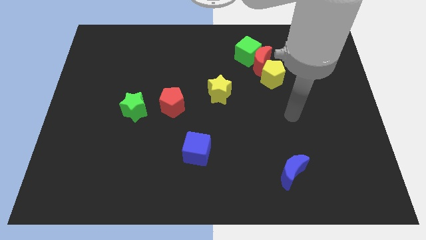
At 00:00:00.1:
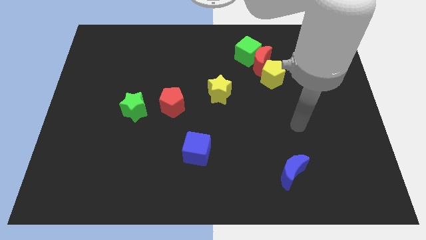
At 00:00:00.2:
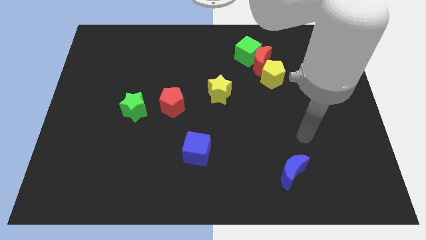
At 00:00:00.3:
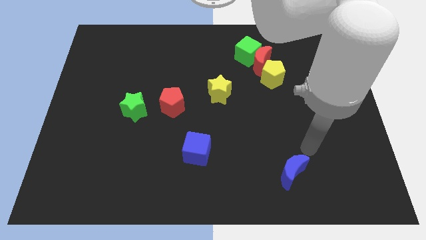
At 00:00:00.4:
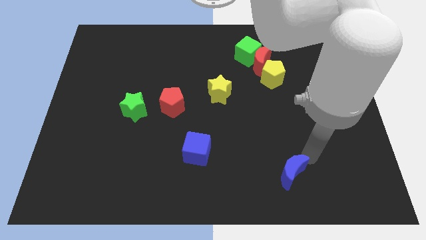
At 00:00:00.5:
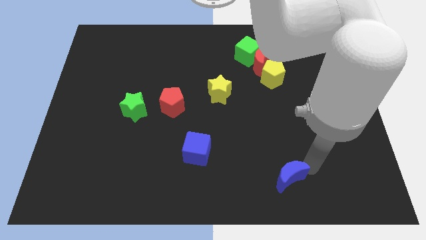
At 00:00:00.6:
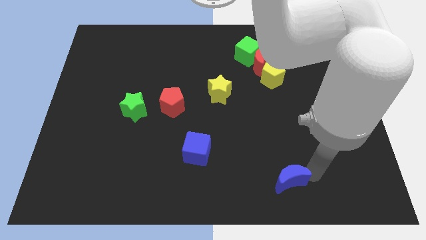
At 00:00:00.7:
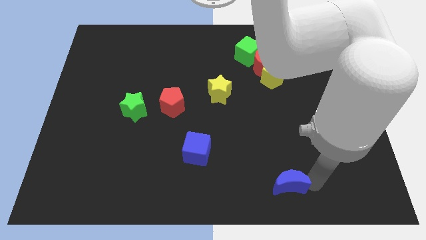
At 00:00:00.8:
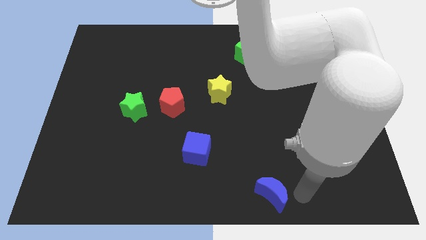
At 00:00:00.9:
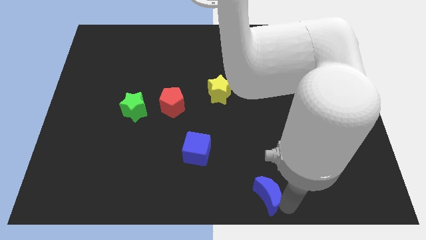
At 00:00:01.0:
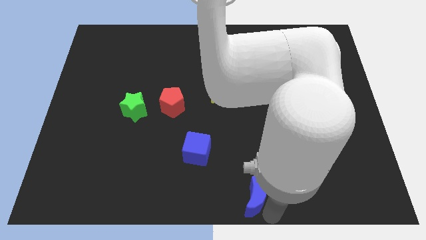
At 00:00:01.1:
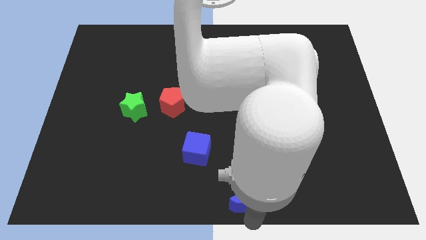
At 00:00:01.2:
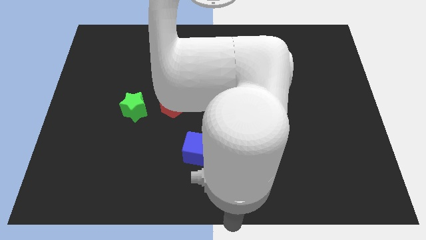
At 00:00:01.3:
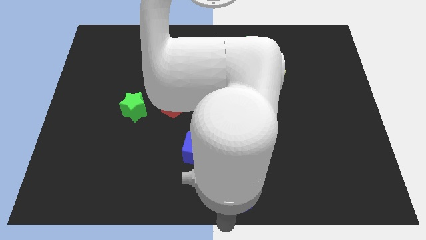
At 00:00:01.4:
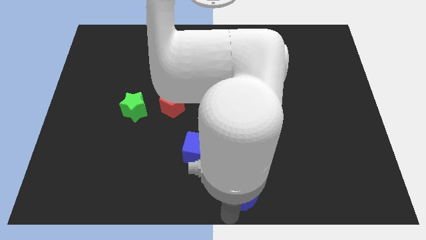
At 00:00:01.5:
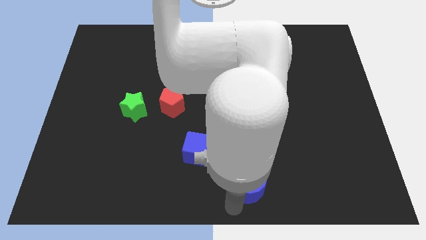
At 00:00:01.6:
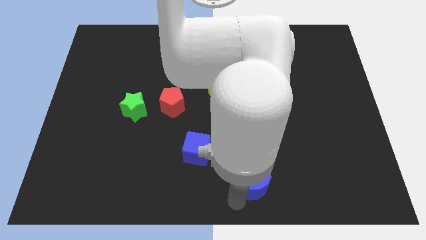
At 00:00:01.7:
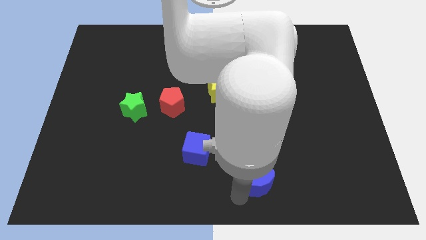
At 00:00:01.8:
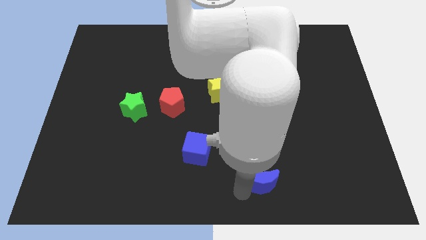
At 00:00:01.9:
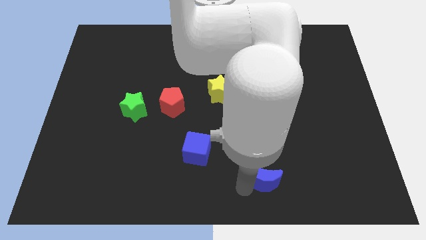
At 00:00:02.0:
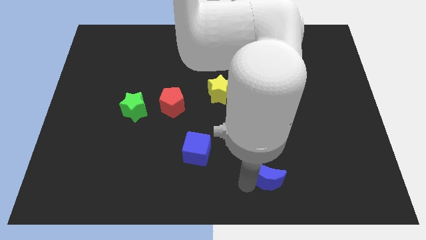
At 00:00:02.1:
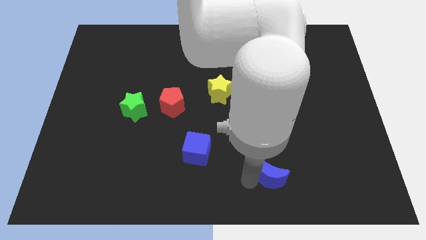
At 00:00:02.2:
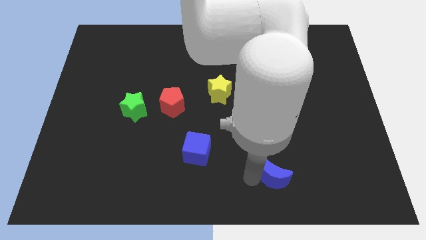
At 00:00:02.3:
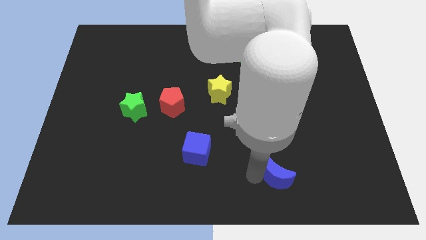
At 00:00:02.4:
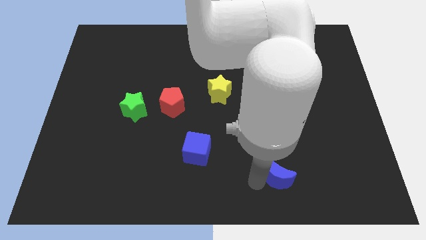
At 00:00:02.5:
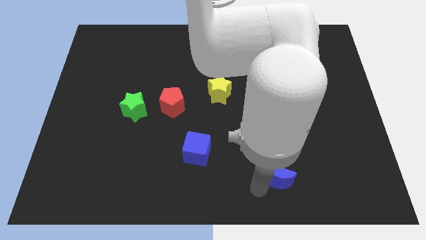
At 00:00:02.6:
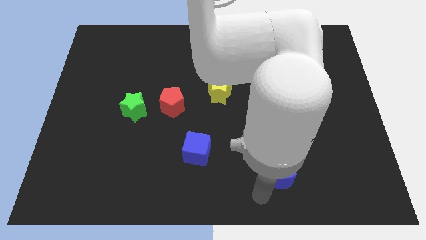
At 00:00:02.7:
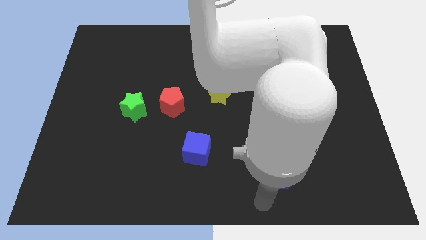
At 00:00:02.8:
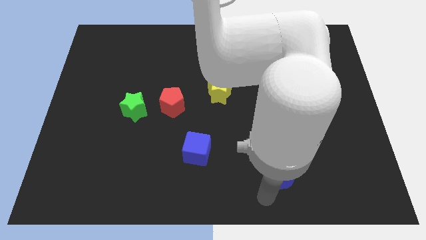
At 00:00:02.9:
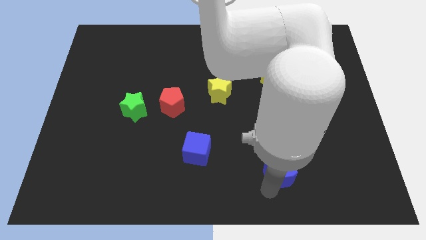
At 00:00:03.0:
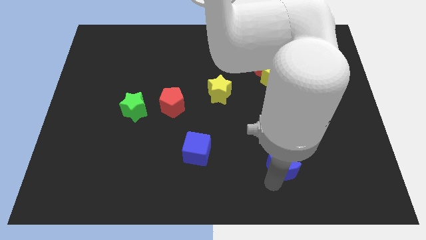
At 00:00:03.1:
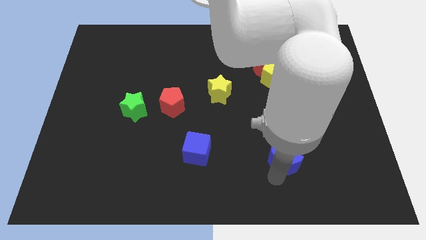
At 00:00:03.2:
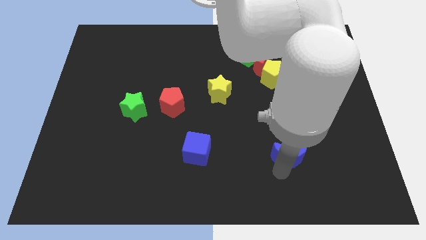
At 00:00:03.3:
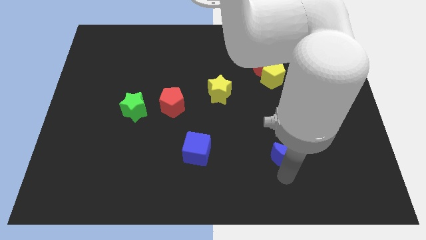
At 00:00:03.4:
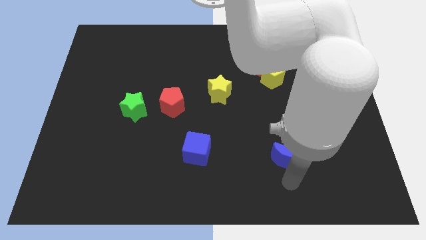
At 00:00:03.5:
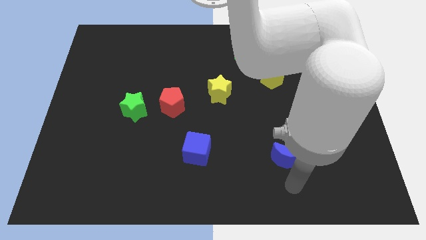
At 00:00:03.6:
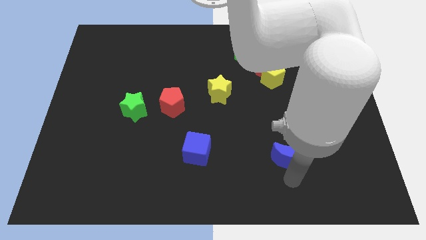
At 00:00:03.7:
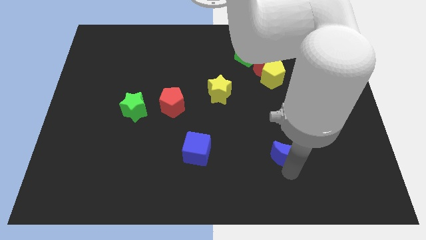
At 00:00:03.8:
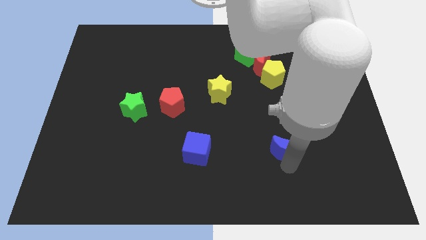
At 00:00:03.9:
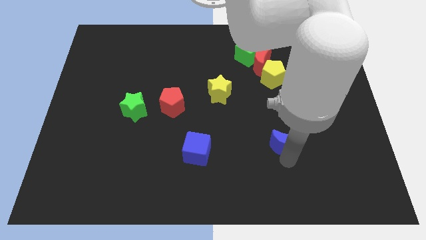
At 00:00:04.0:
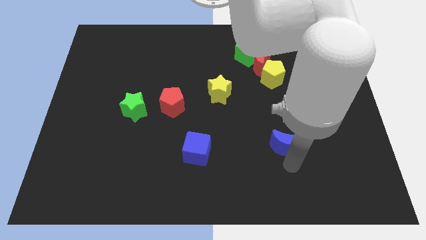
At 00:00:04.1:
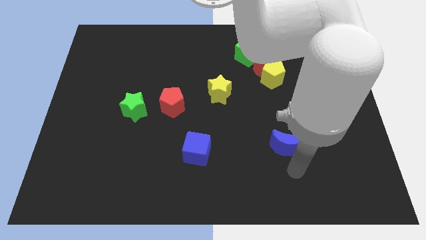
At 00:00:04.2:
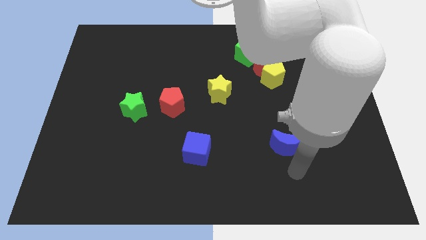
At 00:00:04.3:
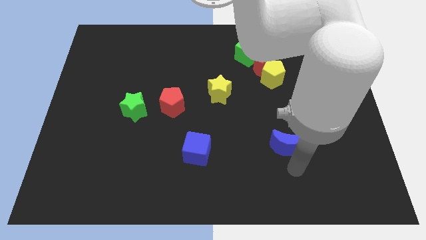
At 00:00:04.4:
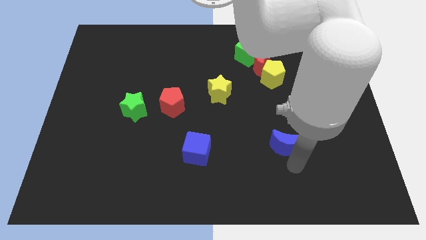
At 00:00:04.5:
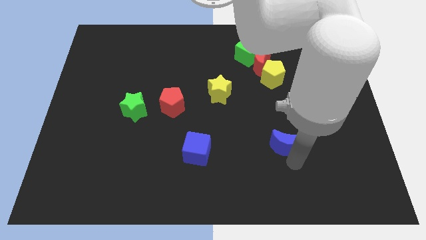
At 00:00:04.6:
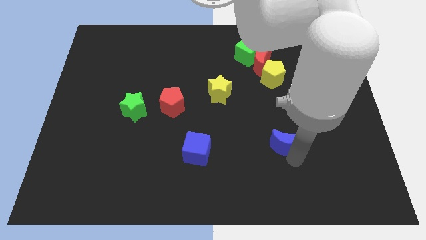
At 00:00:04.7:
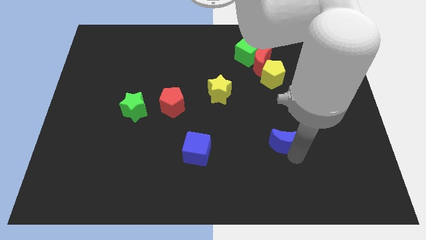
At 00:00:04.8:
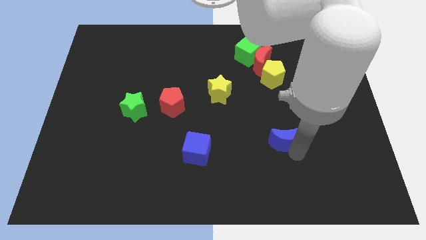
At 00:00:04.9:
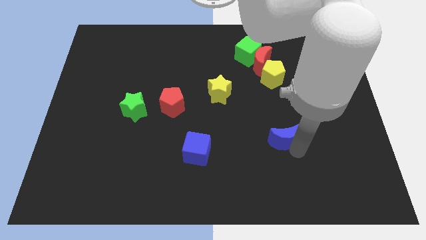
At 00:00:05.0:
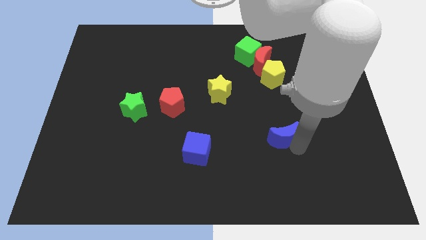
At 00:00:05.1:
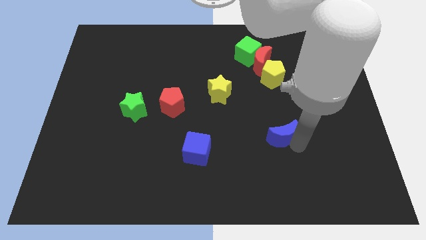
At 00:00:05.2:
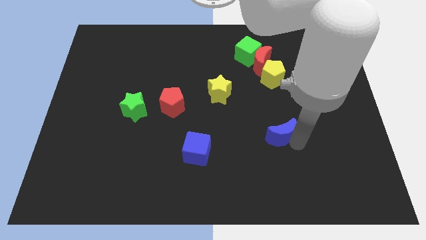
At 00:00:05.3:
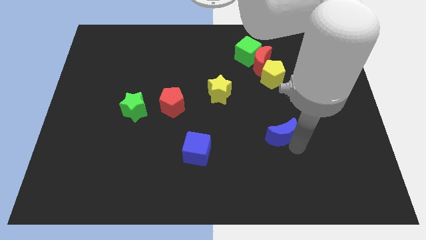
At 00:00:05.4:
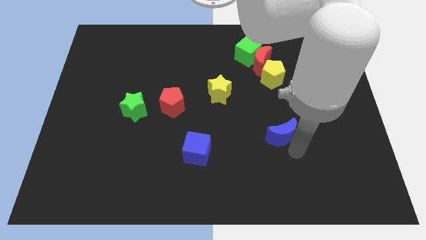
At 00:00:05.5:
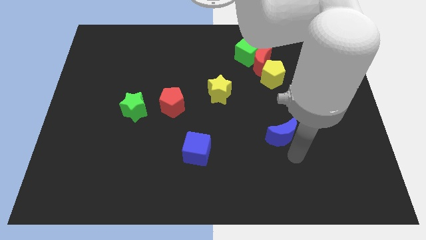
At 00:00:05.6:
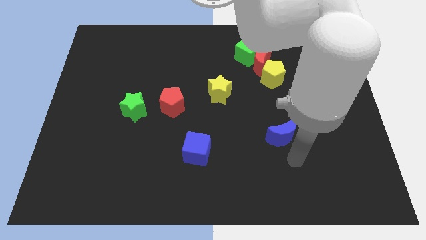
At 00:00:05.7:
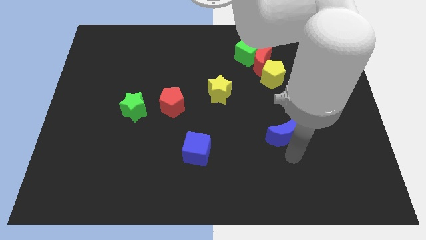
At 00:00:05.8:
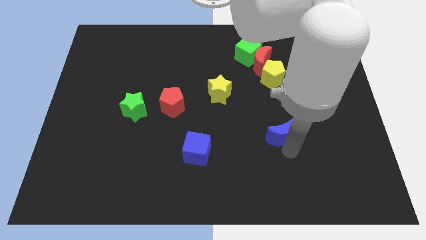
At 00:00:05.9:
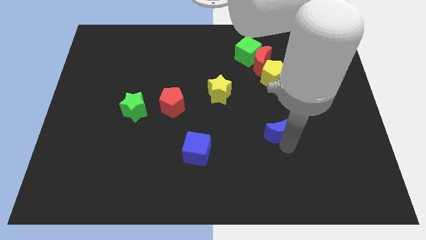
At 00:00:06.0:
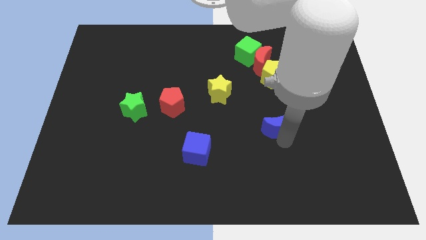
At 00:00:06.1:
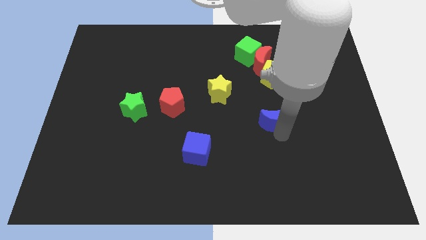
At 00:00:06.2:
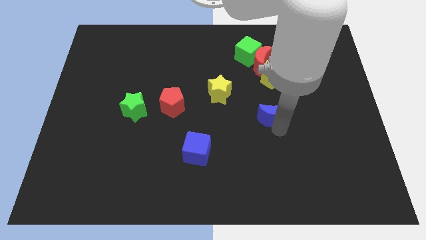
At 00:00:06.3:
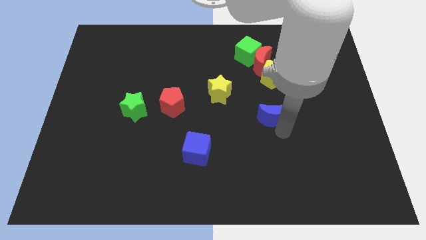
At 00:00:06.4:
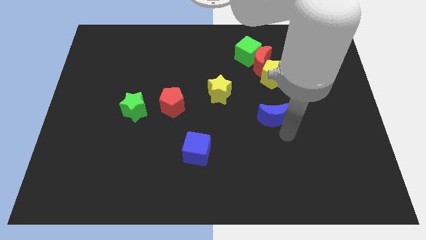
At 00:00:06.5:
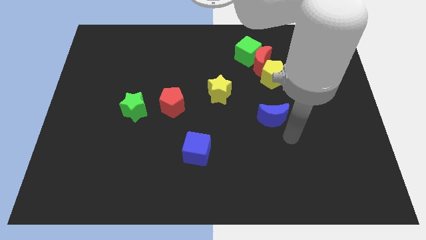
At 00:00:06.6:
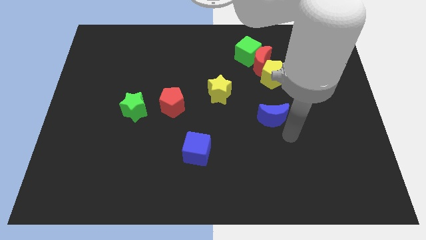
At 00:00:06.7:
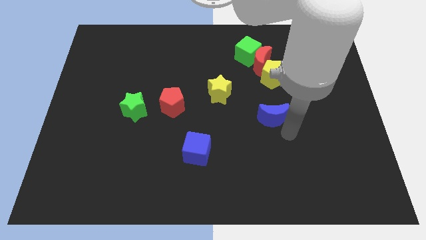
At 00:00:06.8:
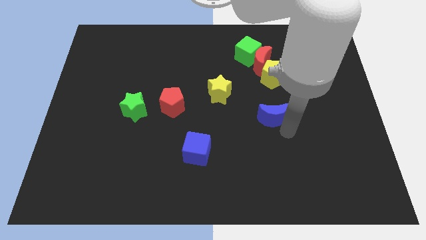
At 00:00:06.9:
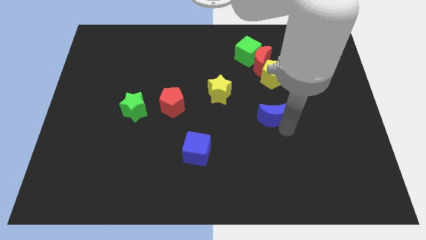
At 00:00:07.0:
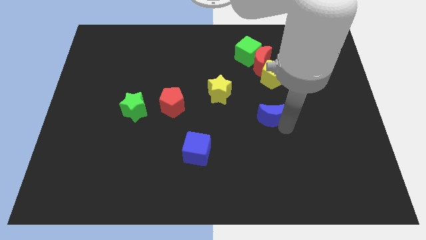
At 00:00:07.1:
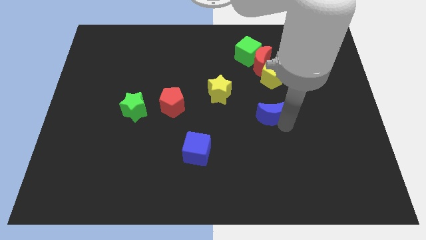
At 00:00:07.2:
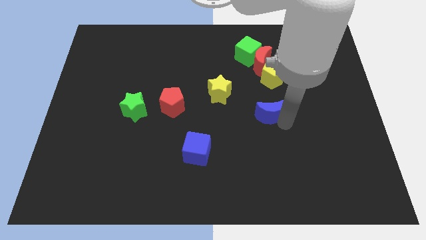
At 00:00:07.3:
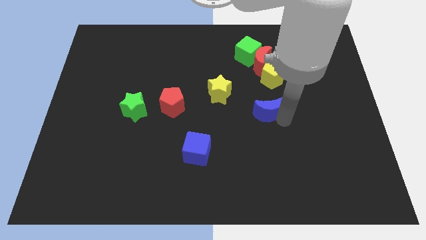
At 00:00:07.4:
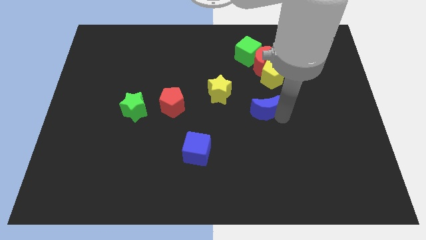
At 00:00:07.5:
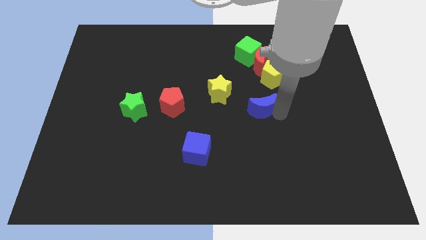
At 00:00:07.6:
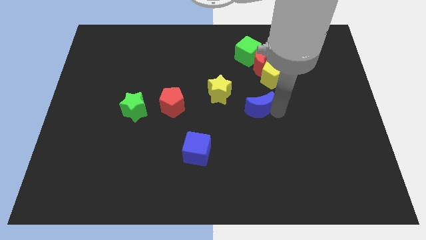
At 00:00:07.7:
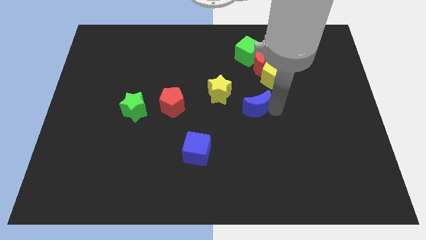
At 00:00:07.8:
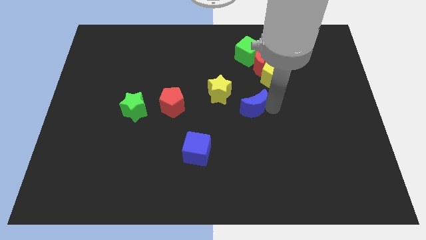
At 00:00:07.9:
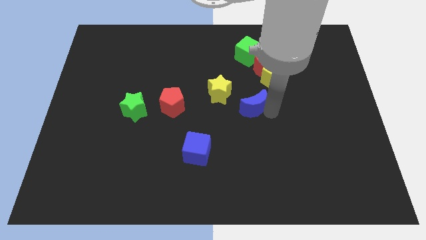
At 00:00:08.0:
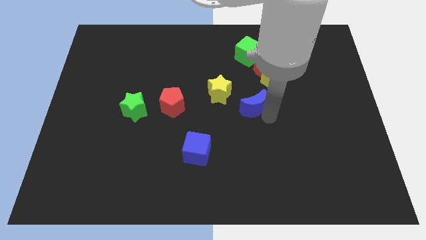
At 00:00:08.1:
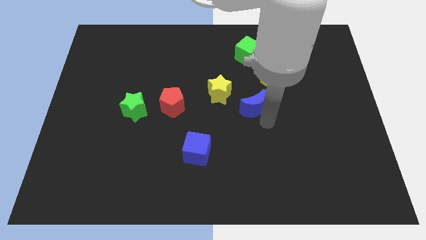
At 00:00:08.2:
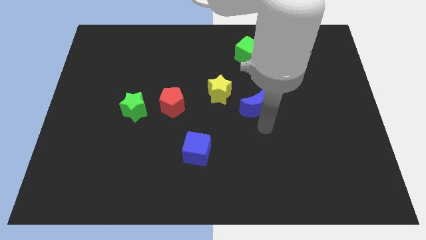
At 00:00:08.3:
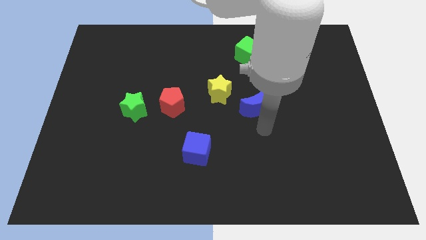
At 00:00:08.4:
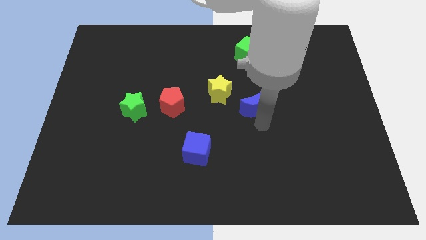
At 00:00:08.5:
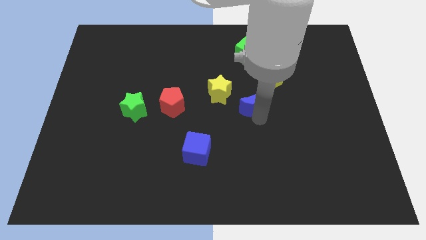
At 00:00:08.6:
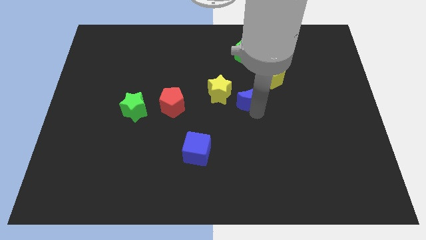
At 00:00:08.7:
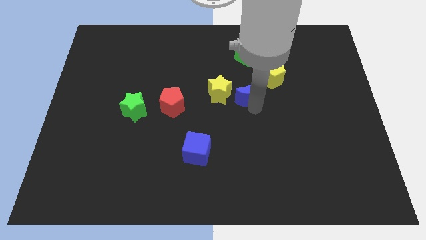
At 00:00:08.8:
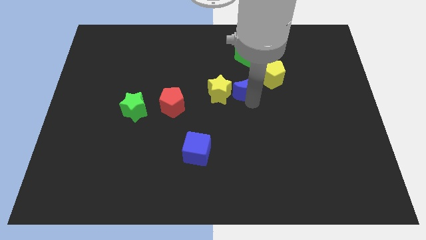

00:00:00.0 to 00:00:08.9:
put the blue moon to the bottom left side of the red moon
